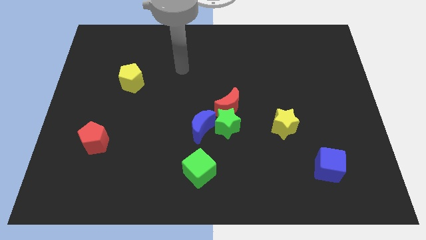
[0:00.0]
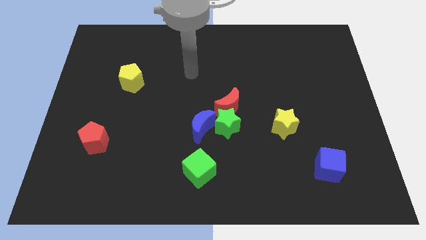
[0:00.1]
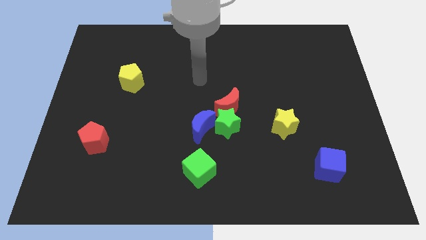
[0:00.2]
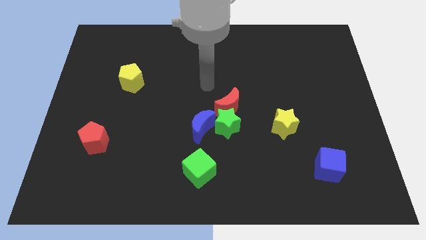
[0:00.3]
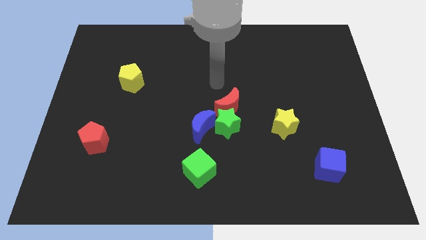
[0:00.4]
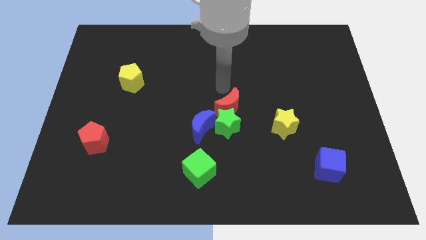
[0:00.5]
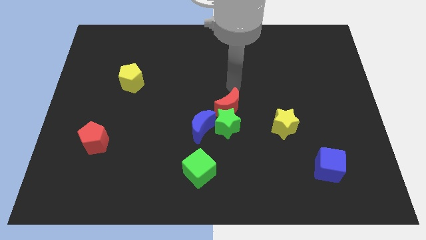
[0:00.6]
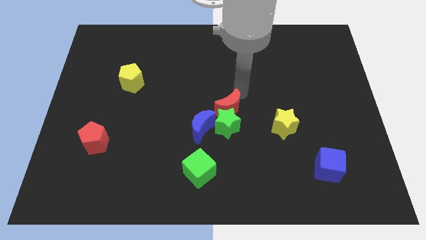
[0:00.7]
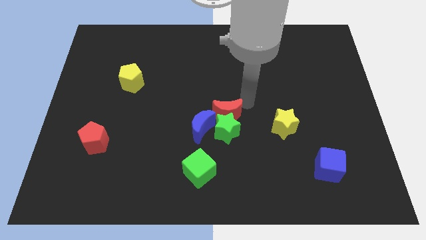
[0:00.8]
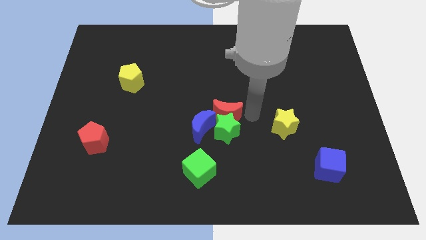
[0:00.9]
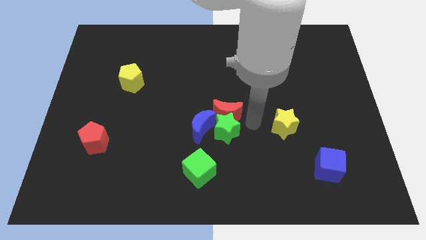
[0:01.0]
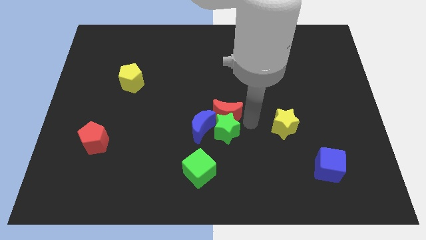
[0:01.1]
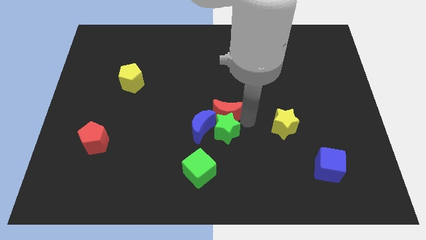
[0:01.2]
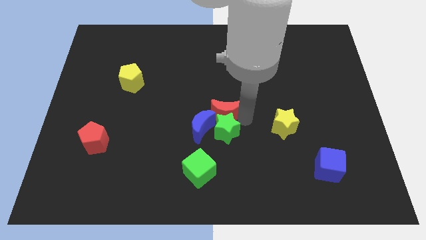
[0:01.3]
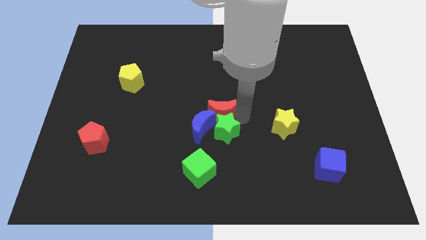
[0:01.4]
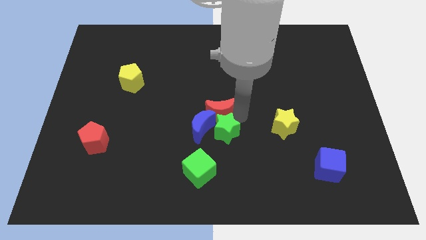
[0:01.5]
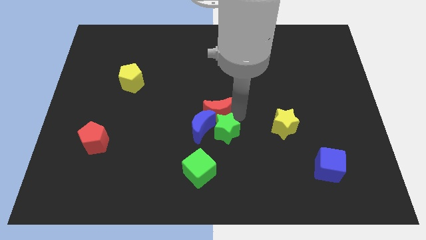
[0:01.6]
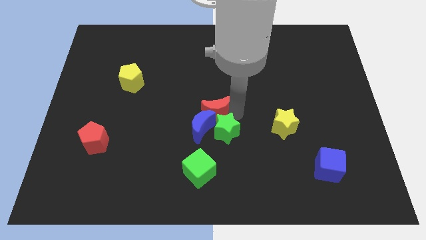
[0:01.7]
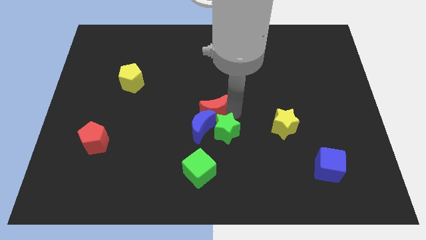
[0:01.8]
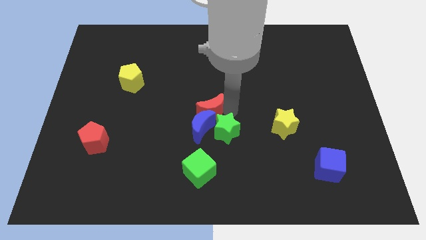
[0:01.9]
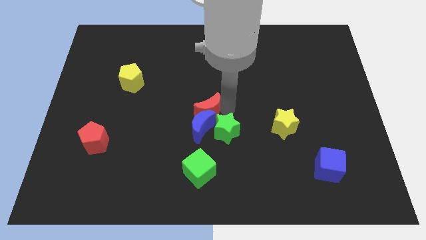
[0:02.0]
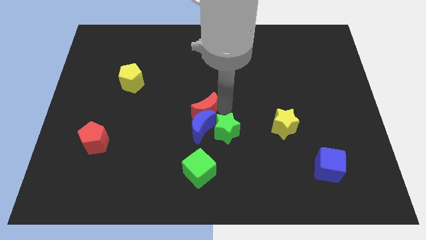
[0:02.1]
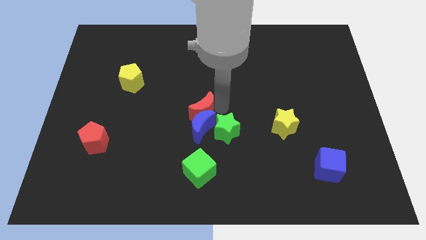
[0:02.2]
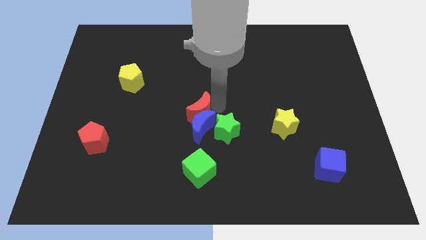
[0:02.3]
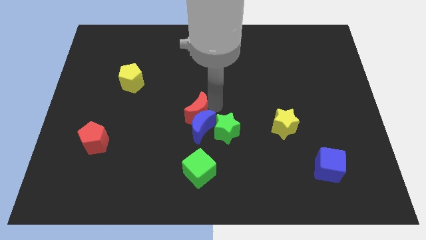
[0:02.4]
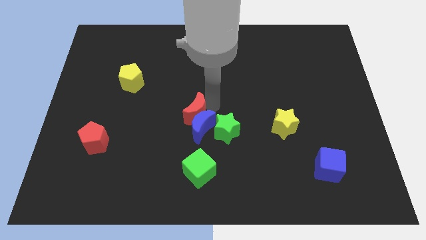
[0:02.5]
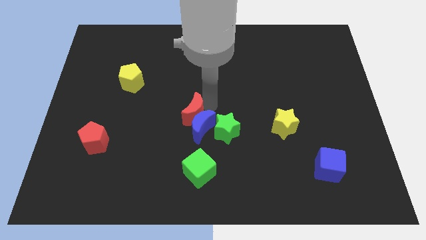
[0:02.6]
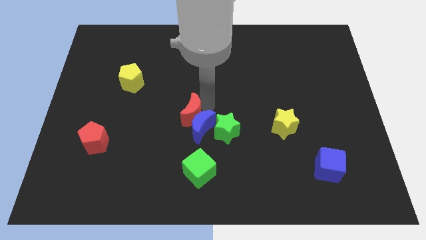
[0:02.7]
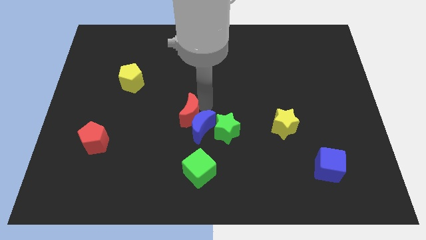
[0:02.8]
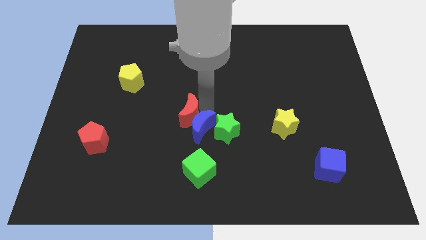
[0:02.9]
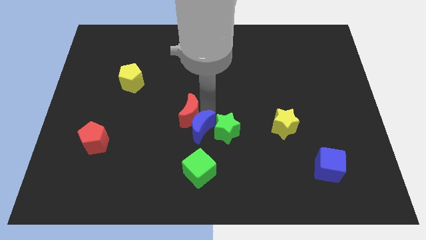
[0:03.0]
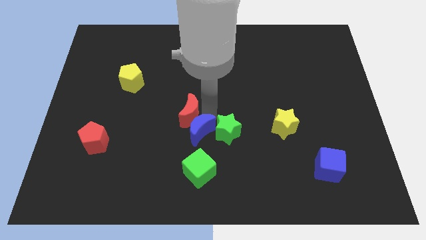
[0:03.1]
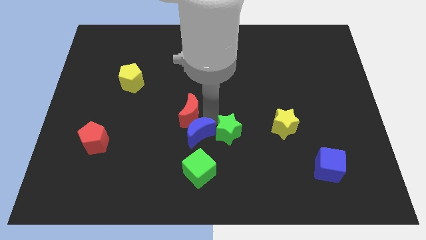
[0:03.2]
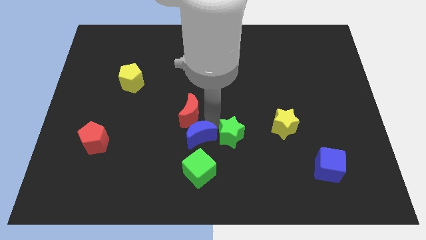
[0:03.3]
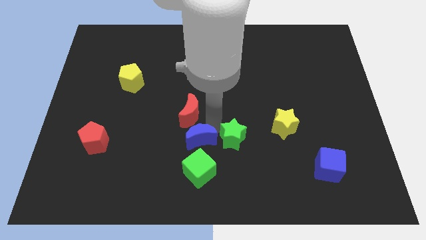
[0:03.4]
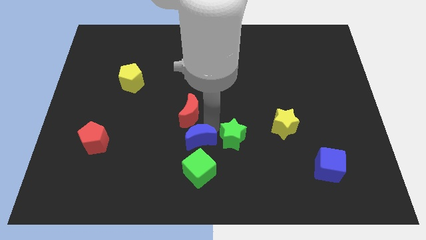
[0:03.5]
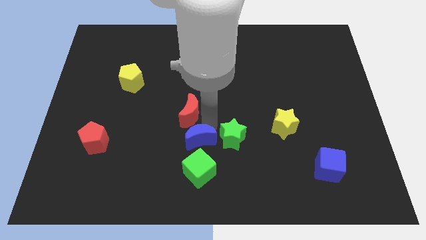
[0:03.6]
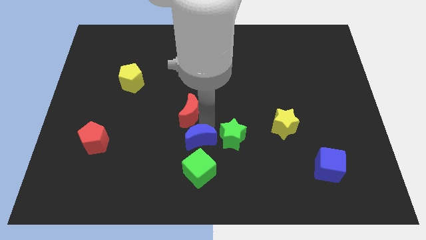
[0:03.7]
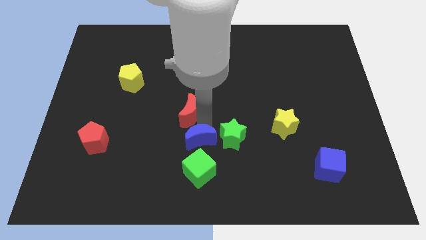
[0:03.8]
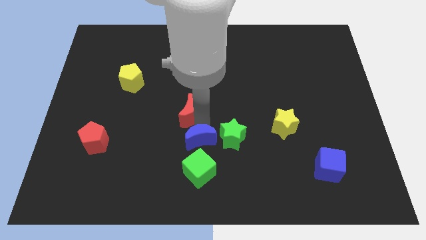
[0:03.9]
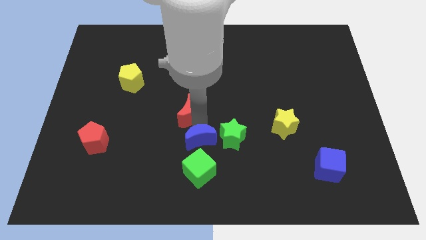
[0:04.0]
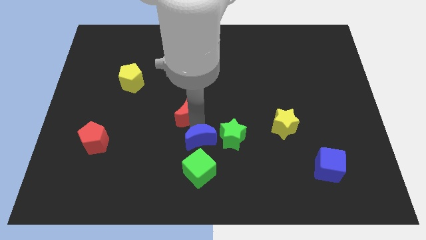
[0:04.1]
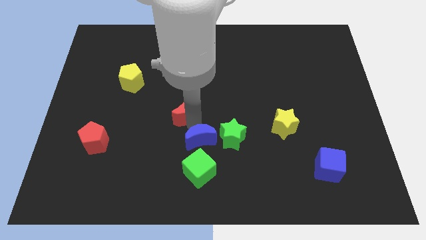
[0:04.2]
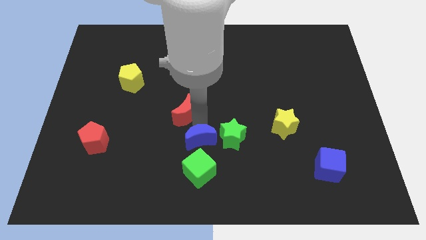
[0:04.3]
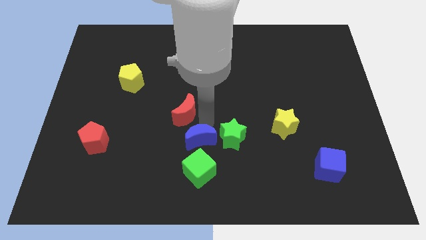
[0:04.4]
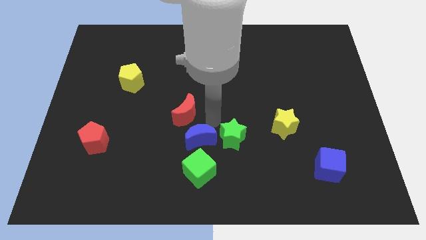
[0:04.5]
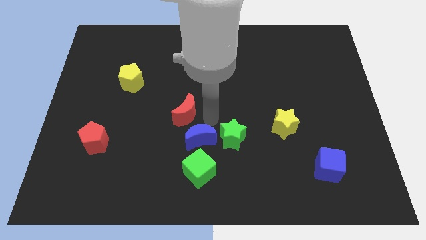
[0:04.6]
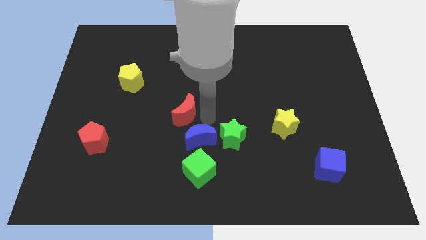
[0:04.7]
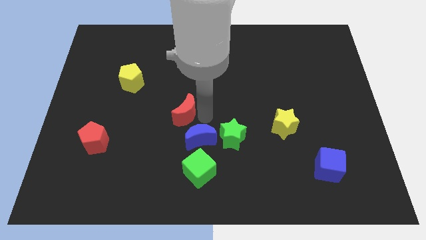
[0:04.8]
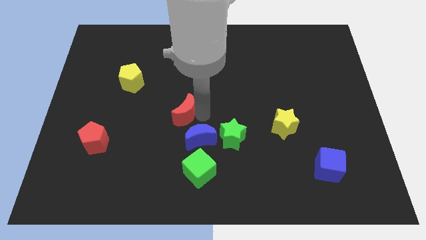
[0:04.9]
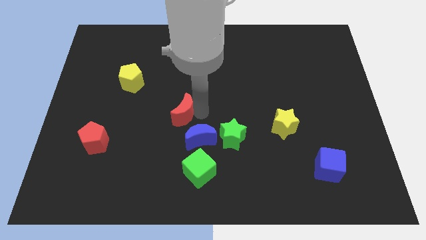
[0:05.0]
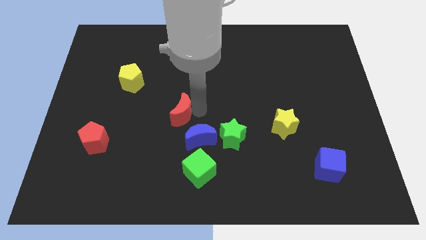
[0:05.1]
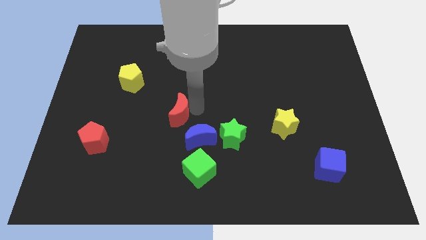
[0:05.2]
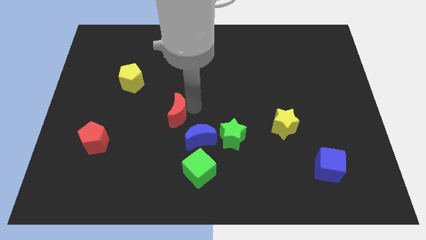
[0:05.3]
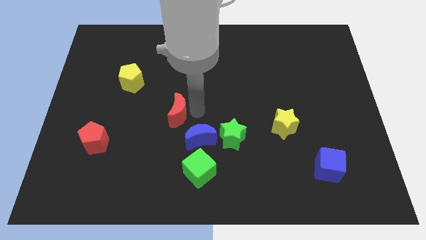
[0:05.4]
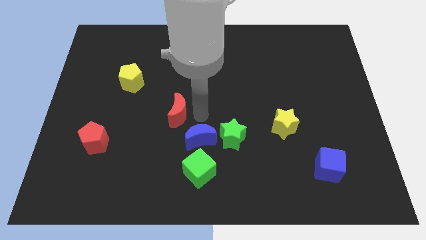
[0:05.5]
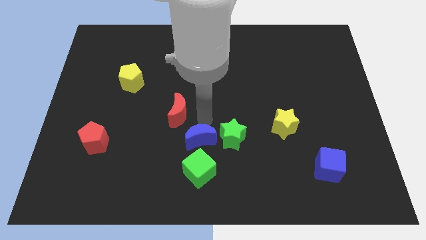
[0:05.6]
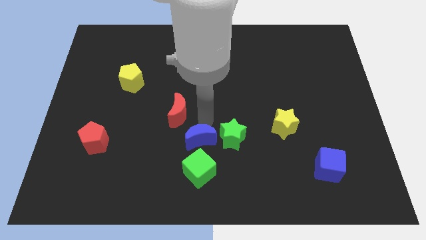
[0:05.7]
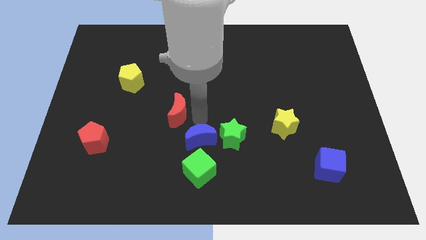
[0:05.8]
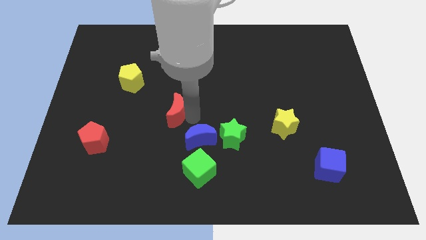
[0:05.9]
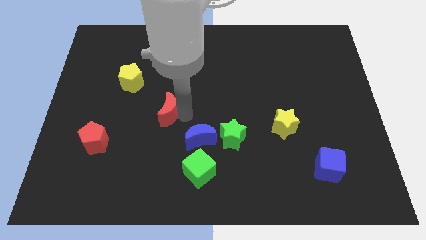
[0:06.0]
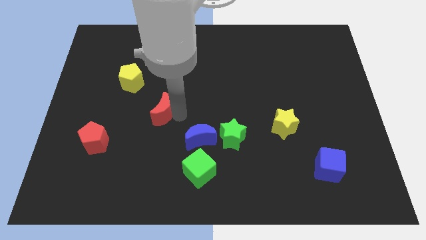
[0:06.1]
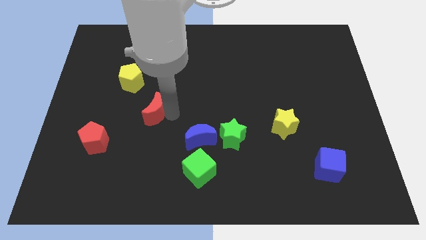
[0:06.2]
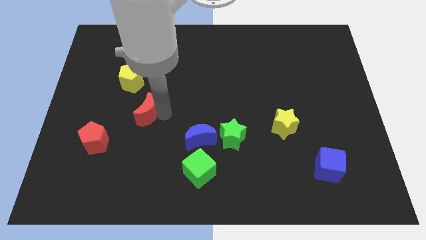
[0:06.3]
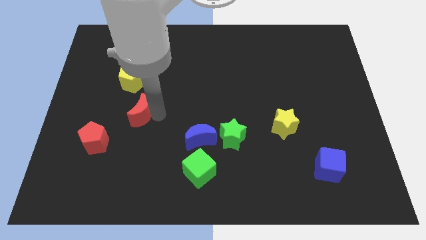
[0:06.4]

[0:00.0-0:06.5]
slide the red moon to the left

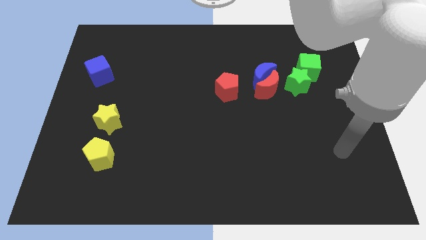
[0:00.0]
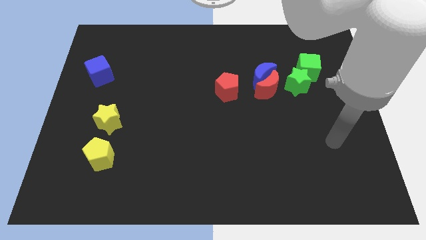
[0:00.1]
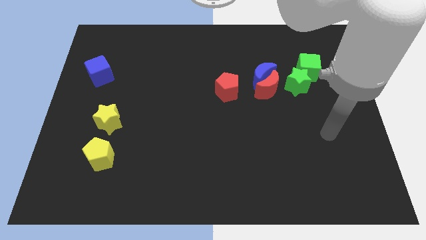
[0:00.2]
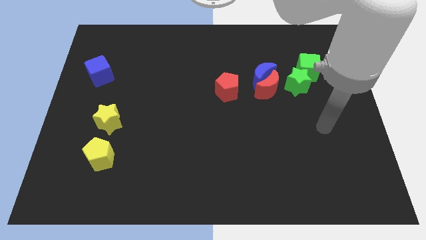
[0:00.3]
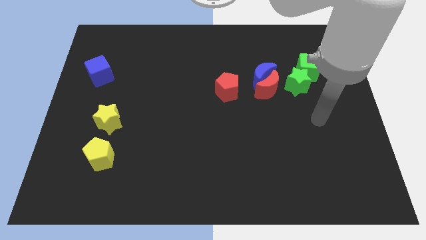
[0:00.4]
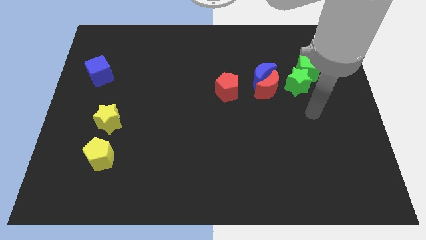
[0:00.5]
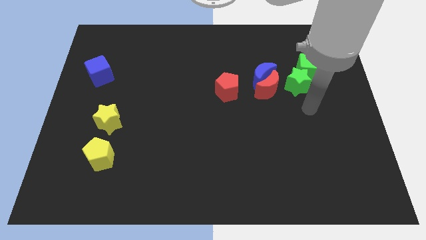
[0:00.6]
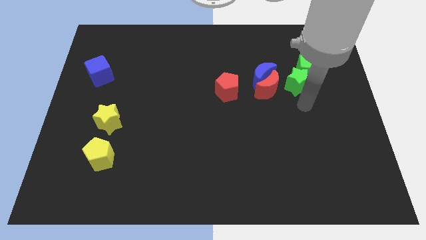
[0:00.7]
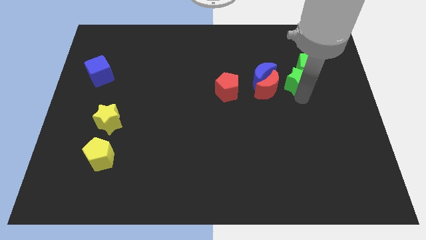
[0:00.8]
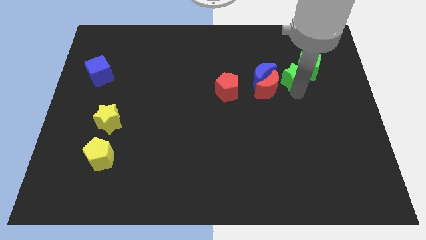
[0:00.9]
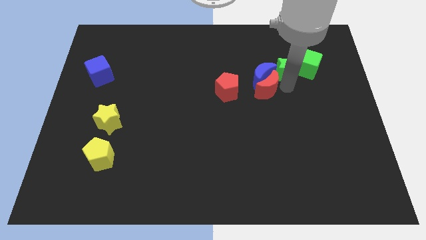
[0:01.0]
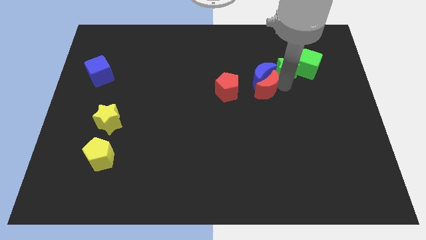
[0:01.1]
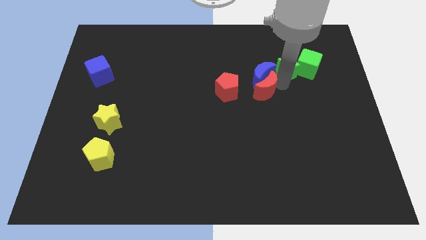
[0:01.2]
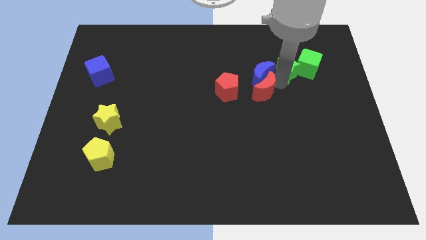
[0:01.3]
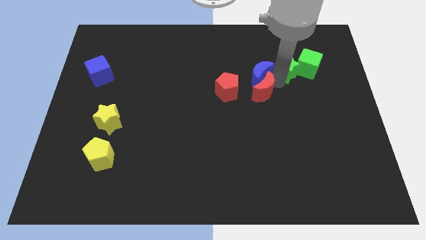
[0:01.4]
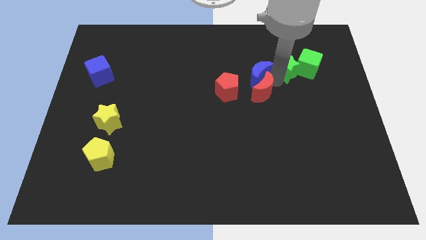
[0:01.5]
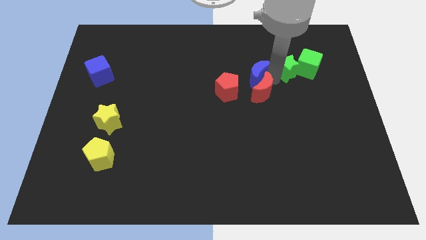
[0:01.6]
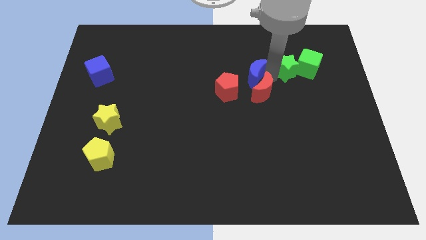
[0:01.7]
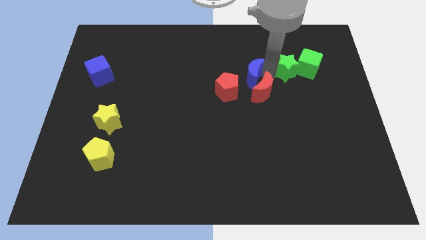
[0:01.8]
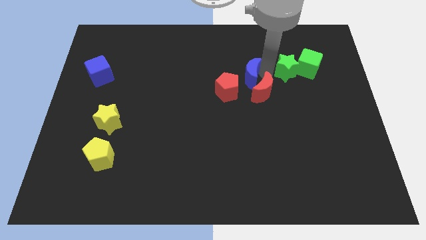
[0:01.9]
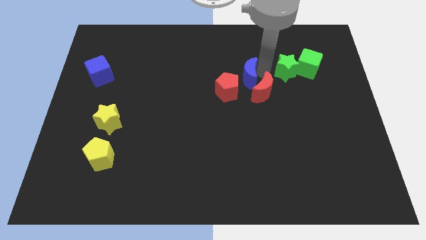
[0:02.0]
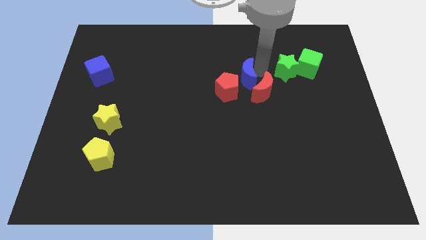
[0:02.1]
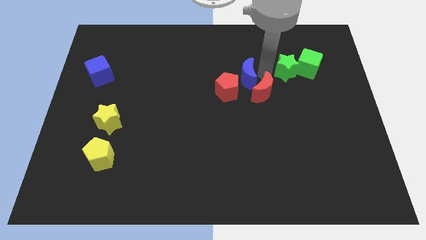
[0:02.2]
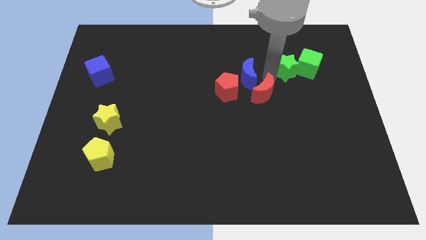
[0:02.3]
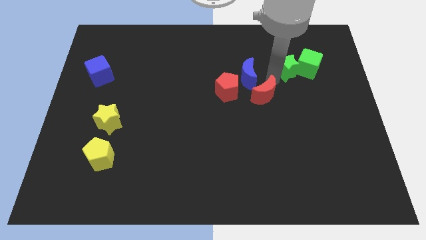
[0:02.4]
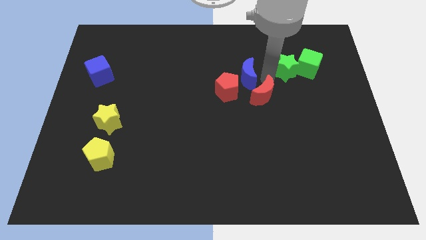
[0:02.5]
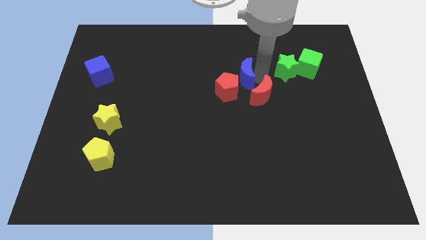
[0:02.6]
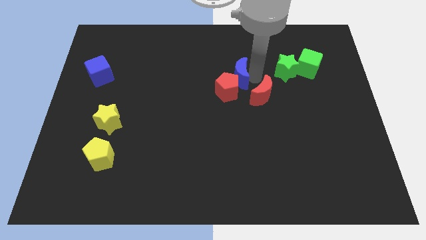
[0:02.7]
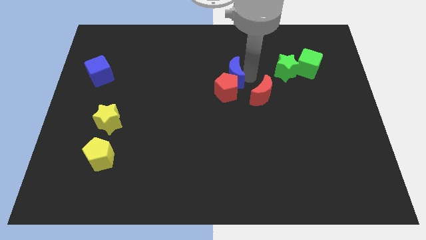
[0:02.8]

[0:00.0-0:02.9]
push the blue moon to the left a little bit
